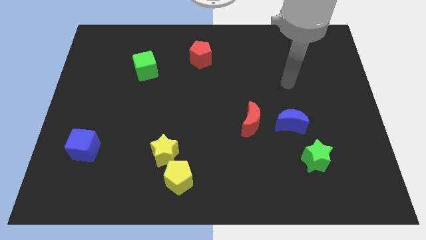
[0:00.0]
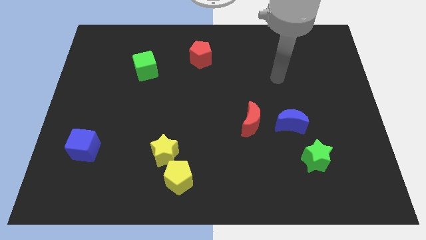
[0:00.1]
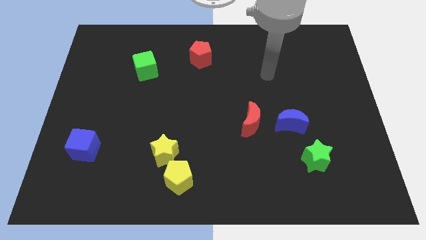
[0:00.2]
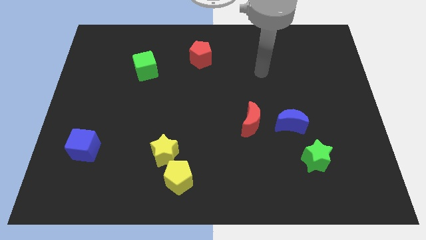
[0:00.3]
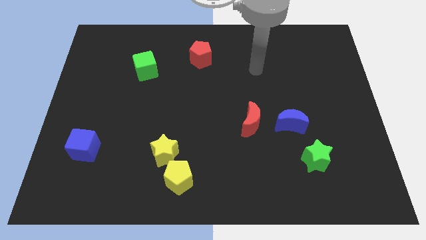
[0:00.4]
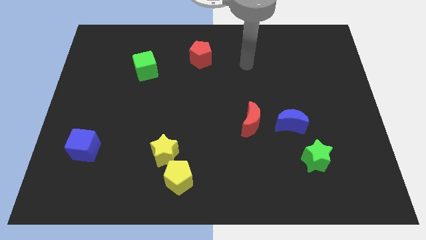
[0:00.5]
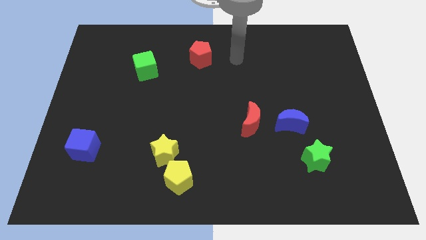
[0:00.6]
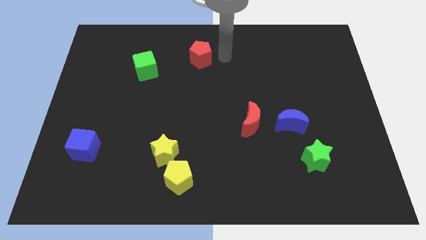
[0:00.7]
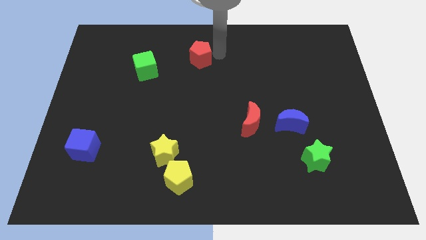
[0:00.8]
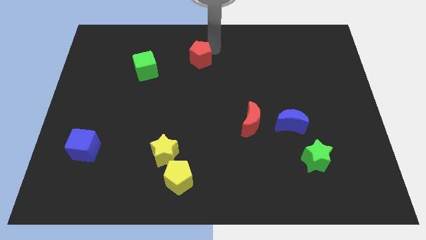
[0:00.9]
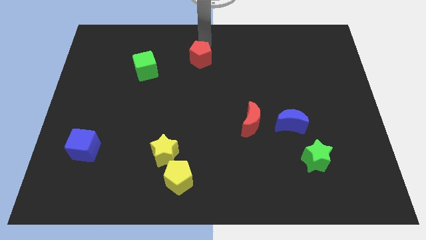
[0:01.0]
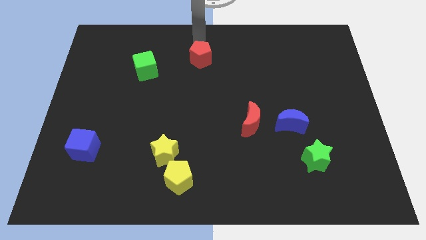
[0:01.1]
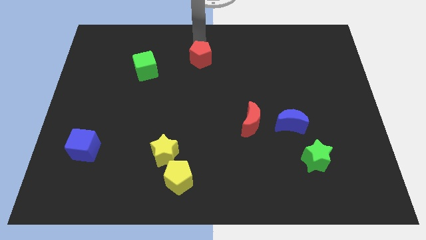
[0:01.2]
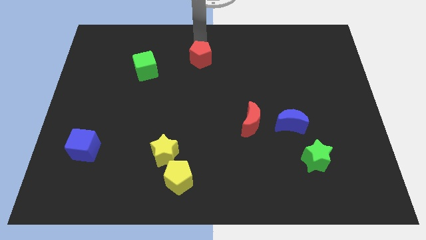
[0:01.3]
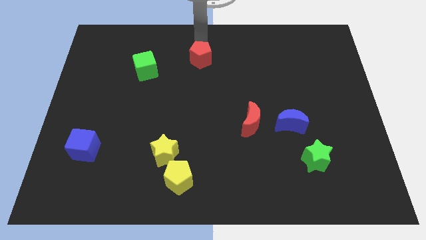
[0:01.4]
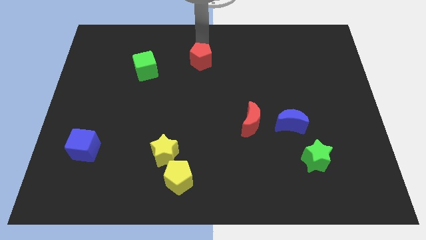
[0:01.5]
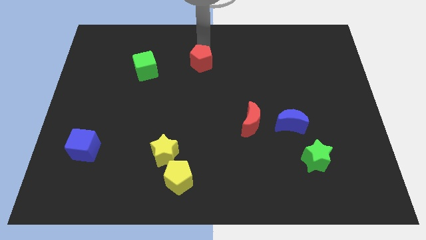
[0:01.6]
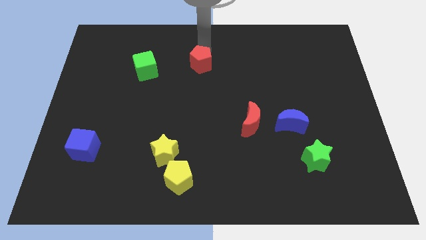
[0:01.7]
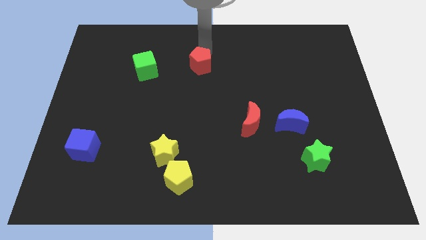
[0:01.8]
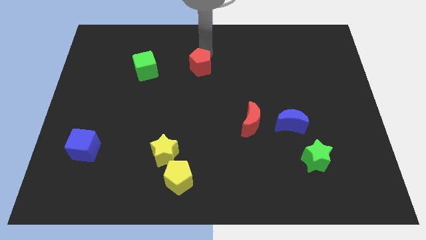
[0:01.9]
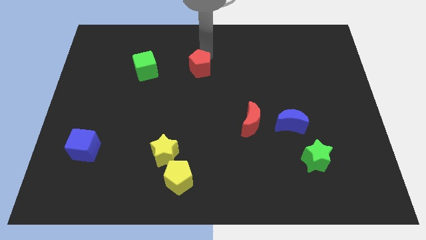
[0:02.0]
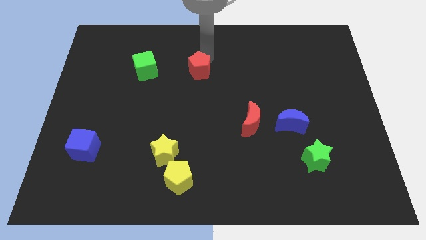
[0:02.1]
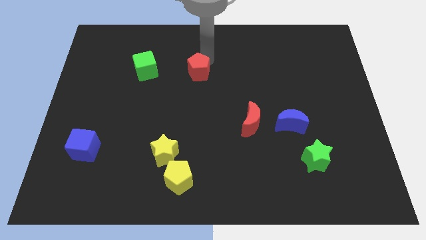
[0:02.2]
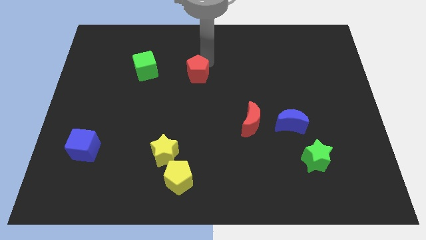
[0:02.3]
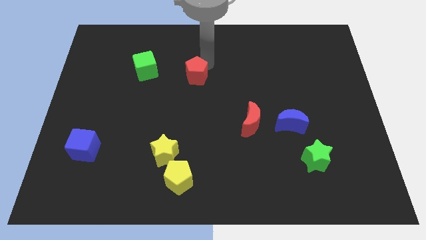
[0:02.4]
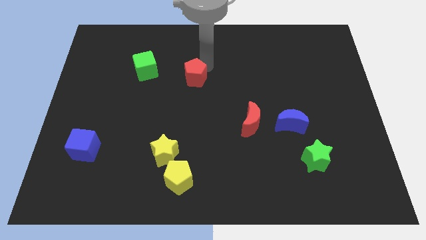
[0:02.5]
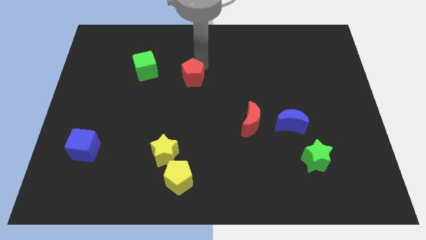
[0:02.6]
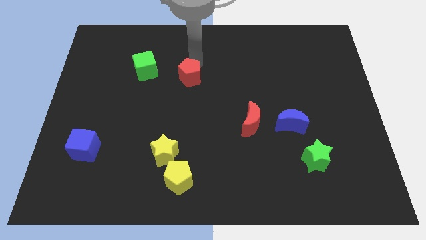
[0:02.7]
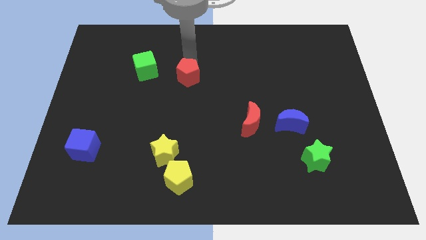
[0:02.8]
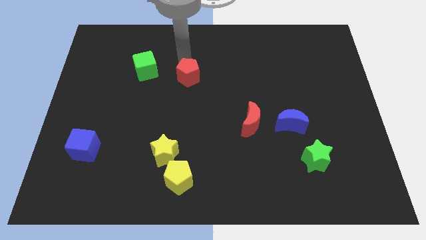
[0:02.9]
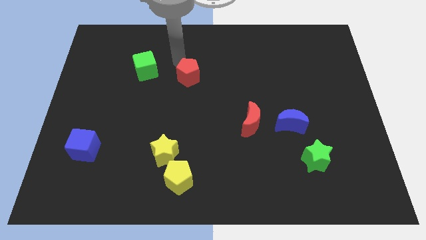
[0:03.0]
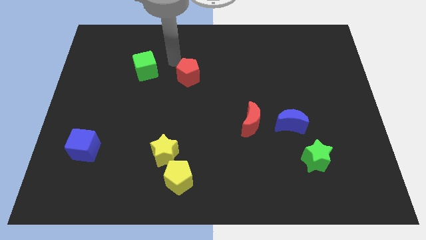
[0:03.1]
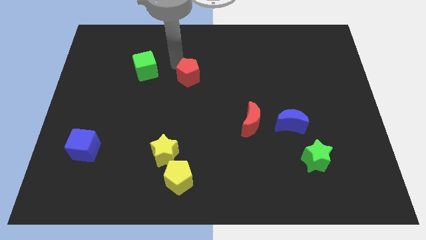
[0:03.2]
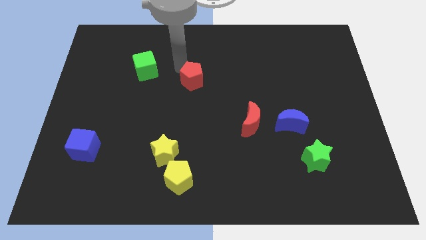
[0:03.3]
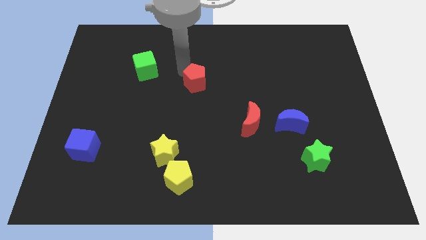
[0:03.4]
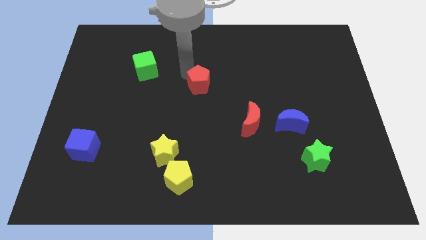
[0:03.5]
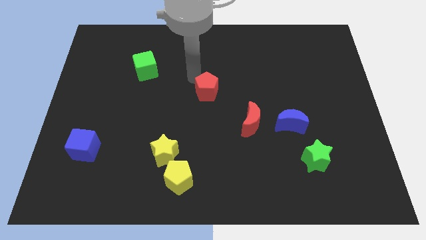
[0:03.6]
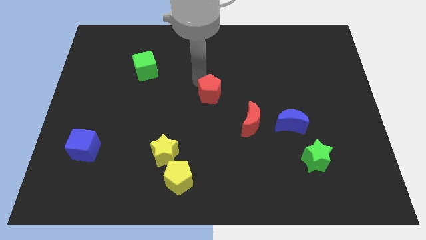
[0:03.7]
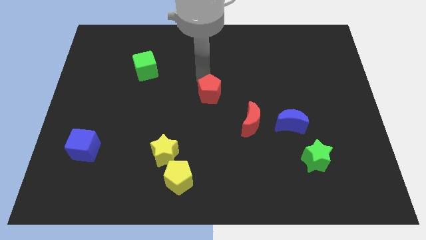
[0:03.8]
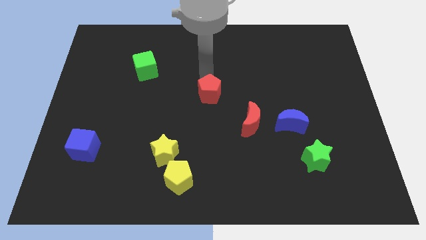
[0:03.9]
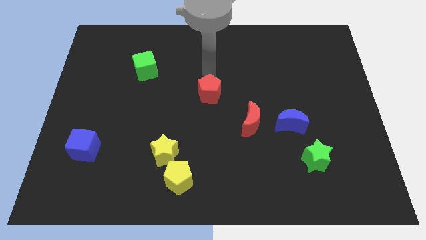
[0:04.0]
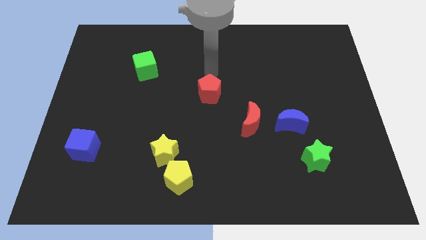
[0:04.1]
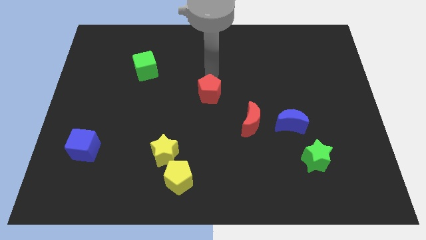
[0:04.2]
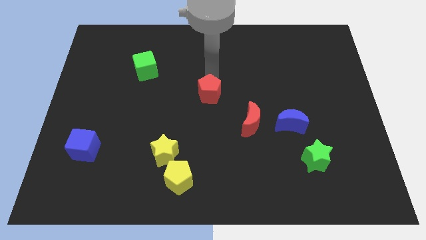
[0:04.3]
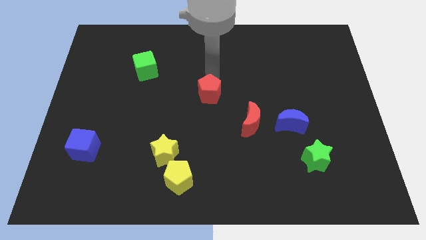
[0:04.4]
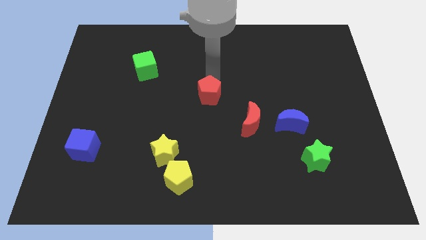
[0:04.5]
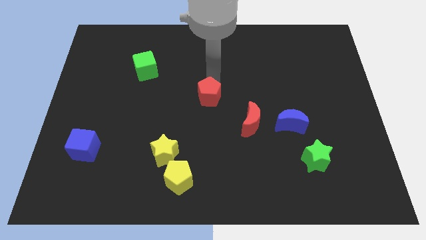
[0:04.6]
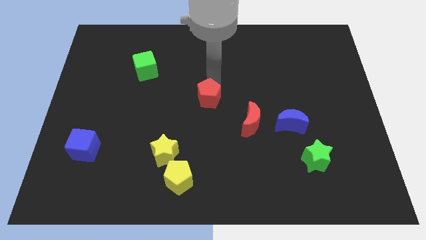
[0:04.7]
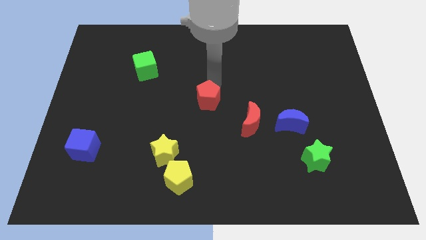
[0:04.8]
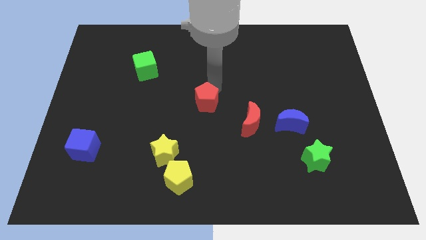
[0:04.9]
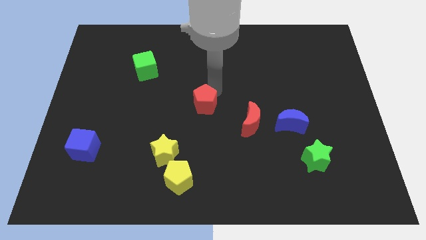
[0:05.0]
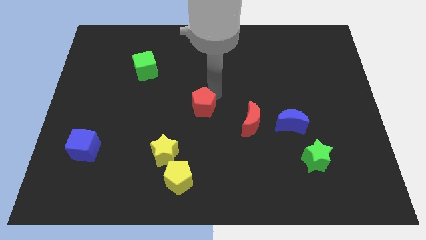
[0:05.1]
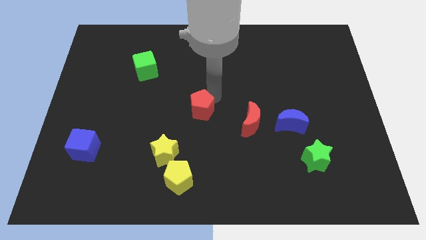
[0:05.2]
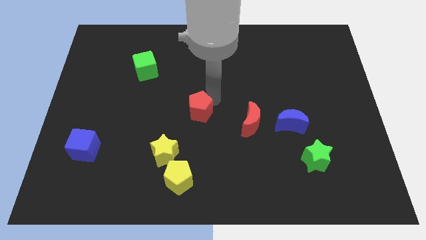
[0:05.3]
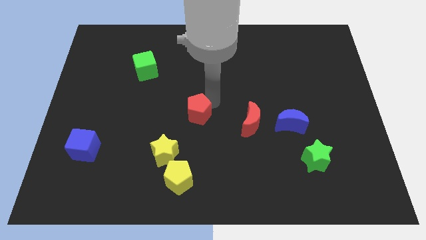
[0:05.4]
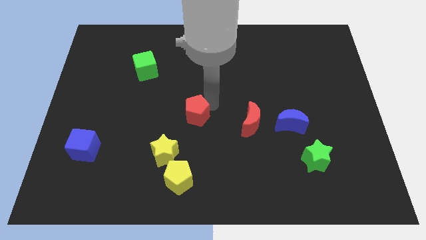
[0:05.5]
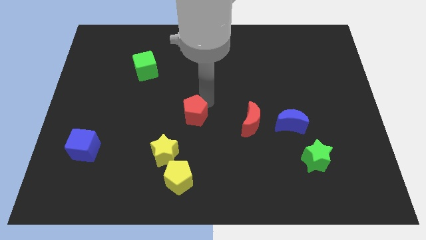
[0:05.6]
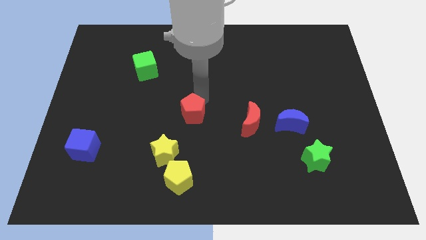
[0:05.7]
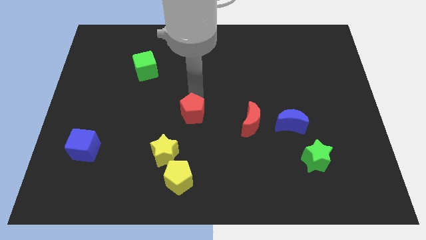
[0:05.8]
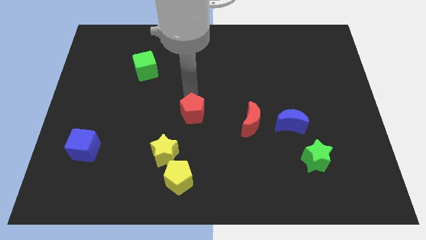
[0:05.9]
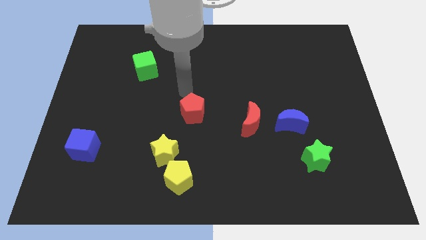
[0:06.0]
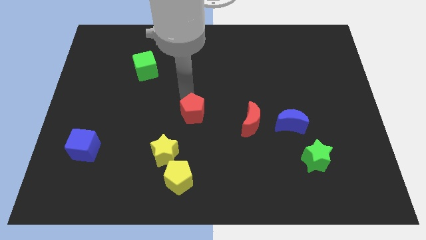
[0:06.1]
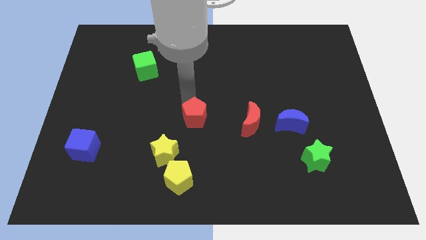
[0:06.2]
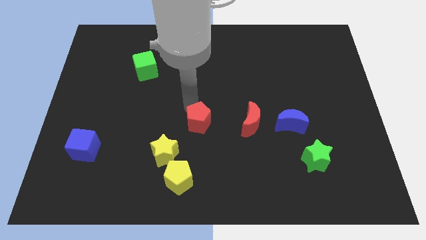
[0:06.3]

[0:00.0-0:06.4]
slide the red pentagon down

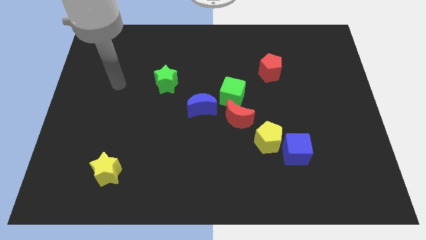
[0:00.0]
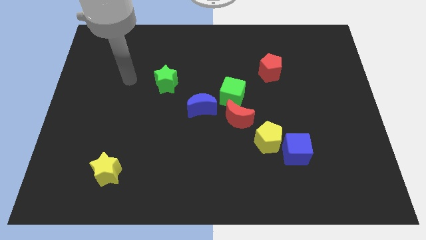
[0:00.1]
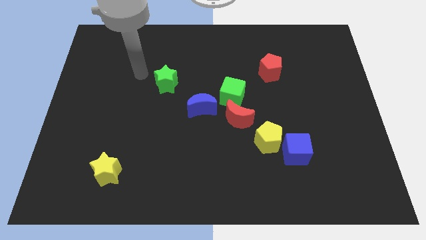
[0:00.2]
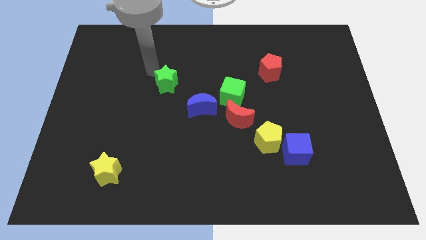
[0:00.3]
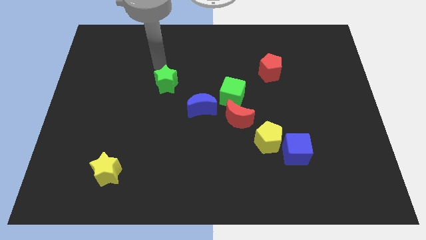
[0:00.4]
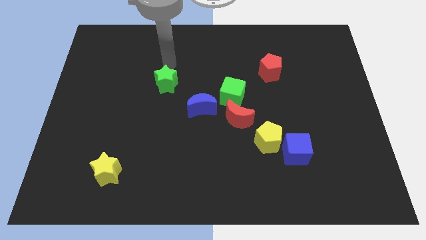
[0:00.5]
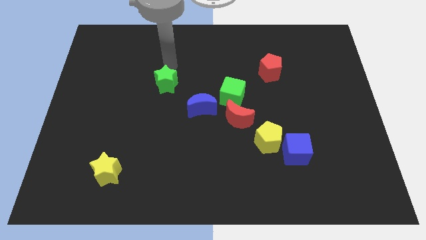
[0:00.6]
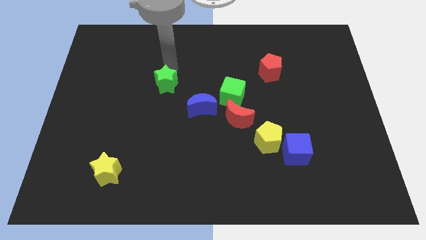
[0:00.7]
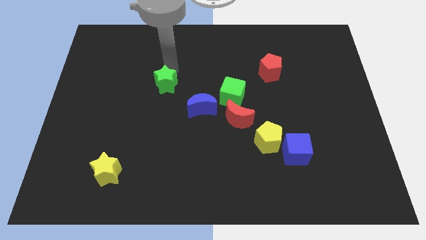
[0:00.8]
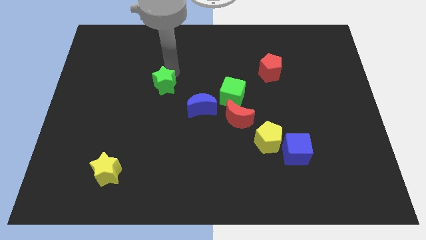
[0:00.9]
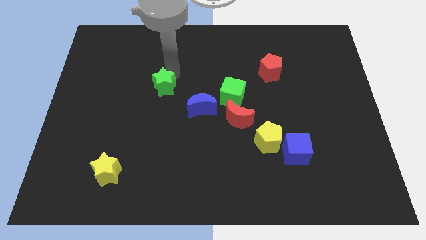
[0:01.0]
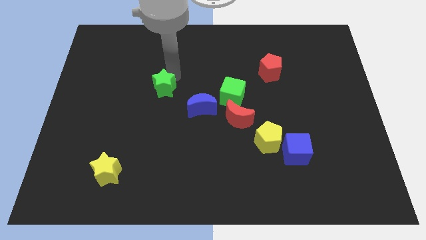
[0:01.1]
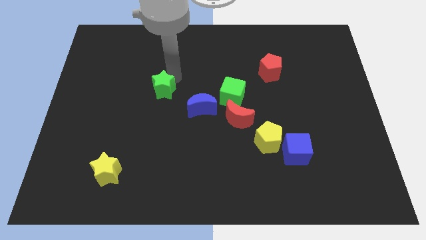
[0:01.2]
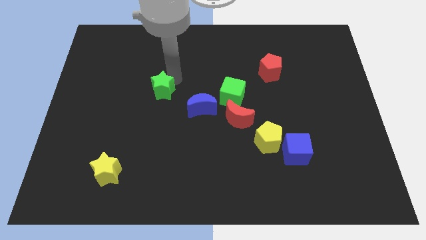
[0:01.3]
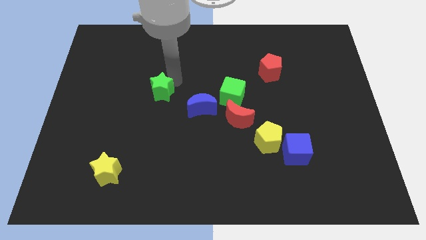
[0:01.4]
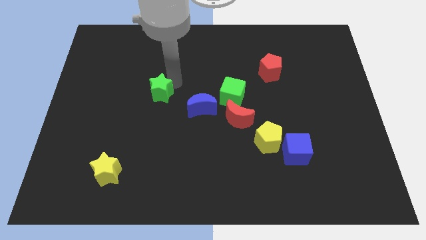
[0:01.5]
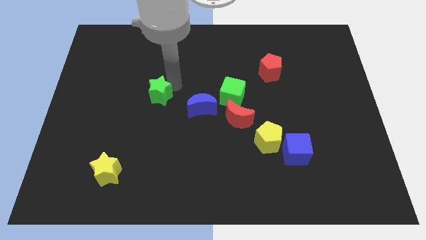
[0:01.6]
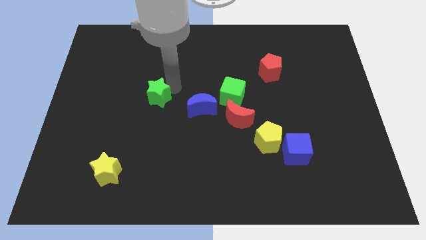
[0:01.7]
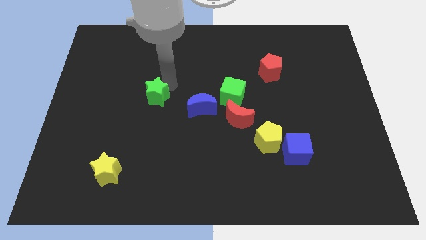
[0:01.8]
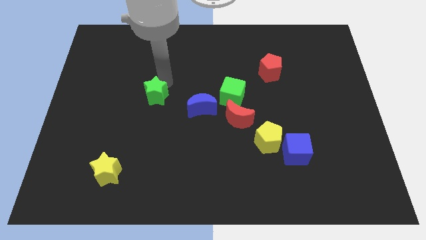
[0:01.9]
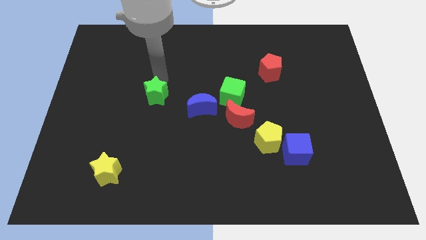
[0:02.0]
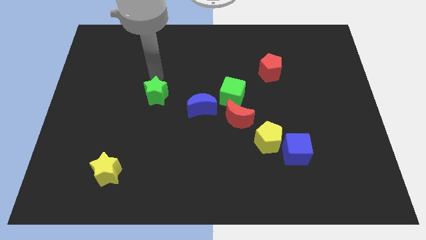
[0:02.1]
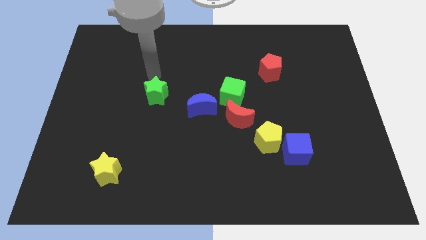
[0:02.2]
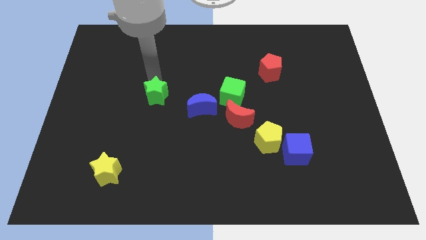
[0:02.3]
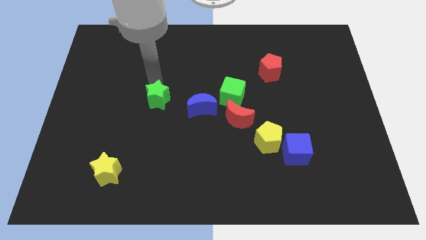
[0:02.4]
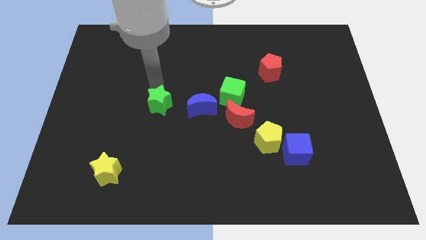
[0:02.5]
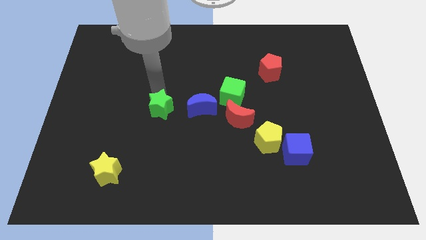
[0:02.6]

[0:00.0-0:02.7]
push the green star a little downwards
